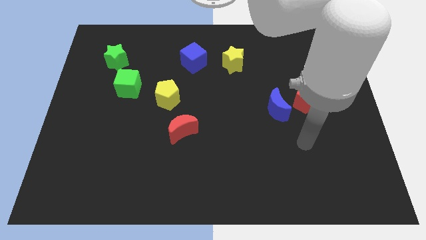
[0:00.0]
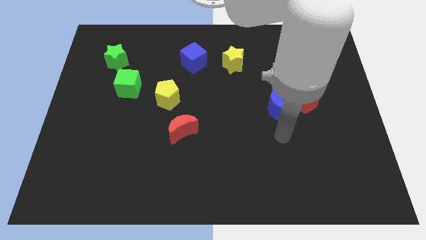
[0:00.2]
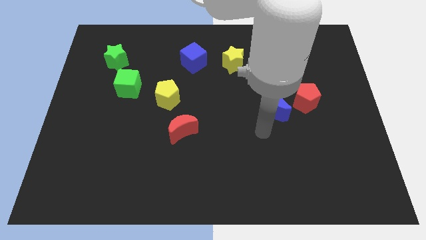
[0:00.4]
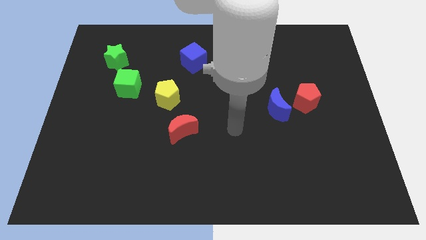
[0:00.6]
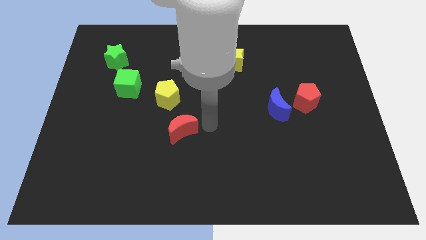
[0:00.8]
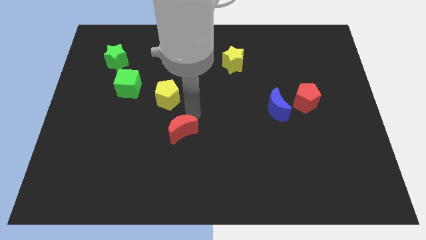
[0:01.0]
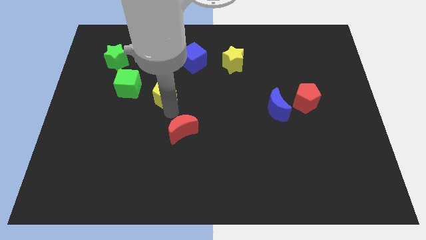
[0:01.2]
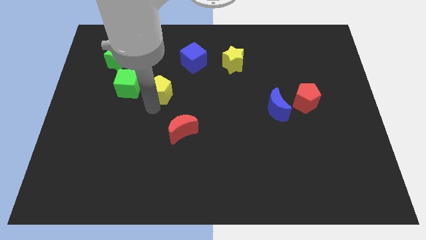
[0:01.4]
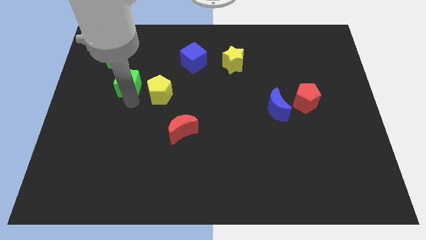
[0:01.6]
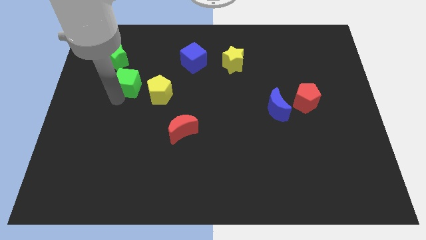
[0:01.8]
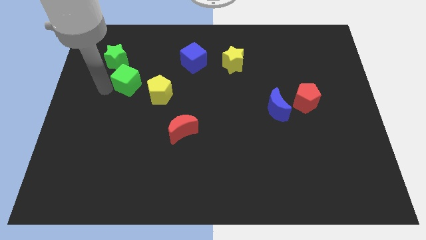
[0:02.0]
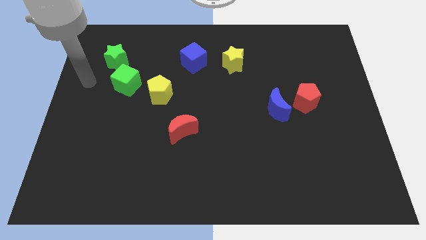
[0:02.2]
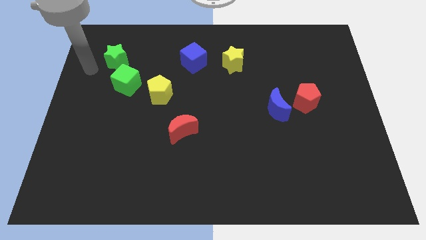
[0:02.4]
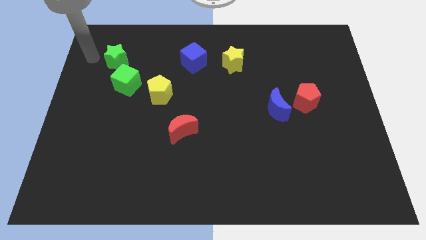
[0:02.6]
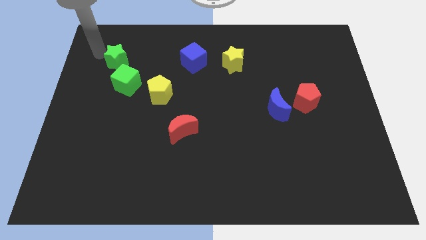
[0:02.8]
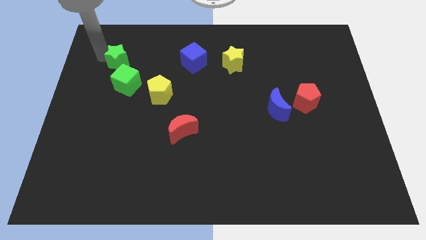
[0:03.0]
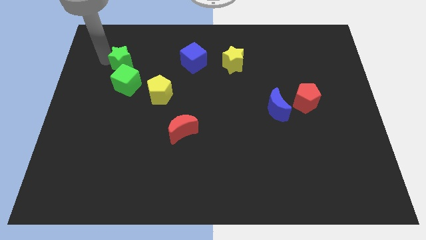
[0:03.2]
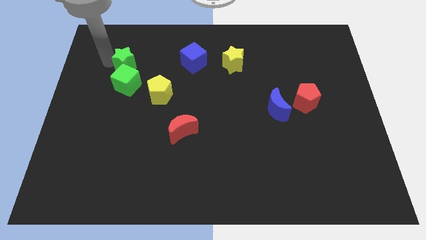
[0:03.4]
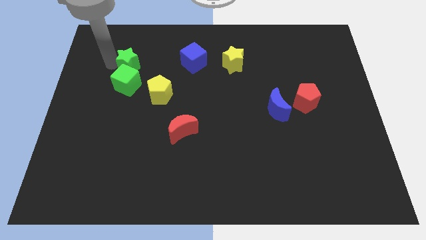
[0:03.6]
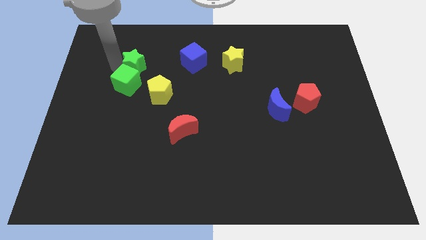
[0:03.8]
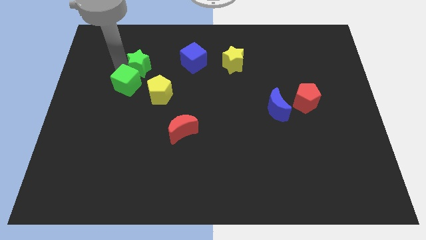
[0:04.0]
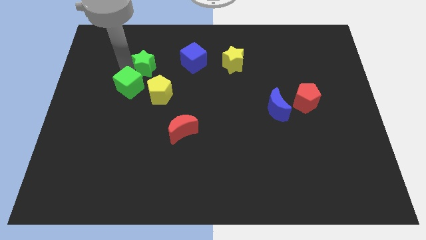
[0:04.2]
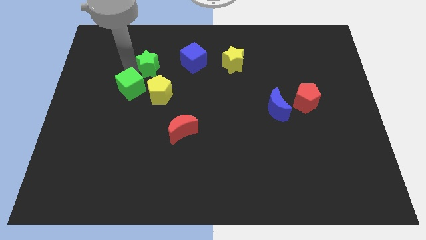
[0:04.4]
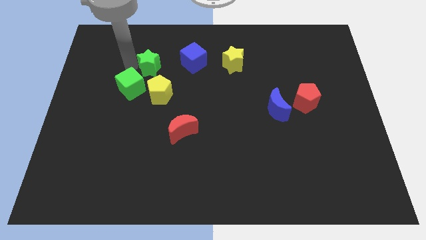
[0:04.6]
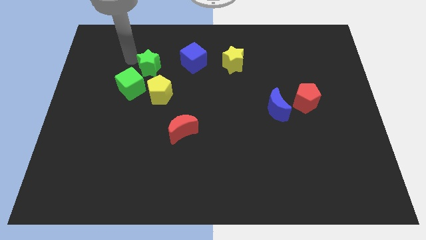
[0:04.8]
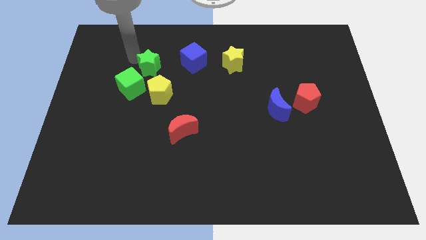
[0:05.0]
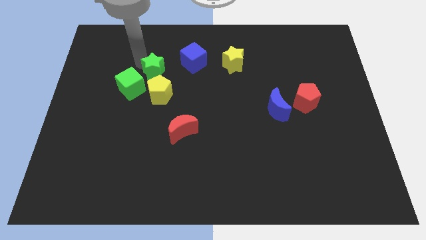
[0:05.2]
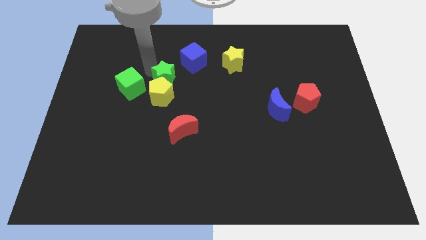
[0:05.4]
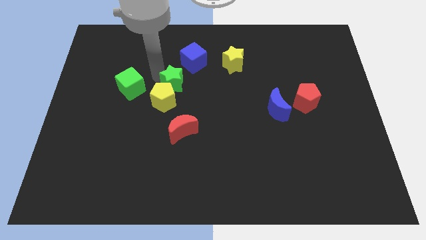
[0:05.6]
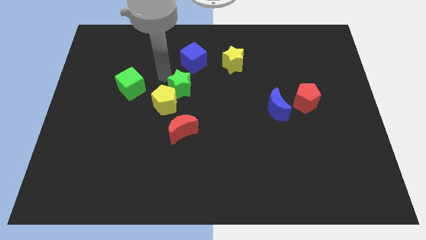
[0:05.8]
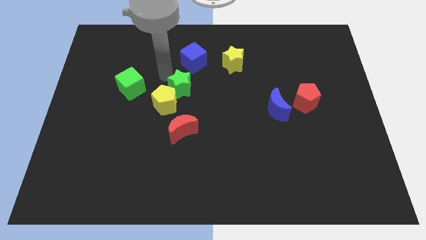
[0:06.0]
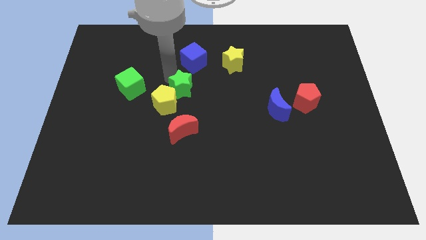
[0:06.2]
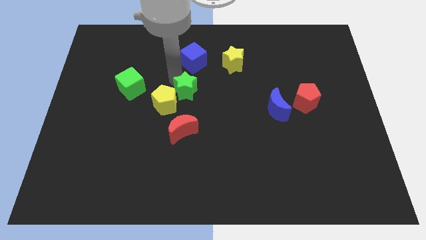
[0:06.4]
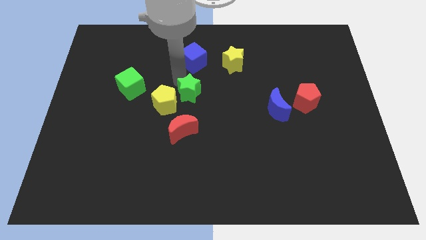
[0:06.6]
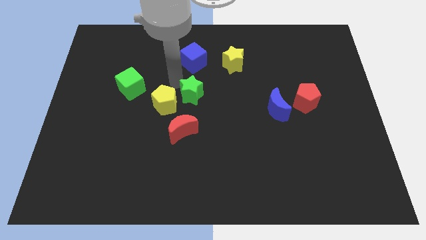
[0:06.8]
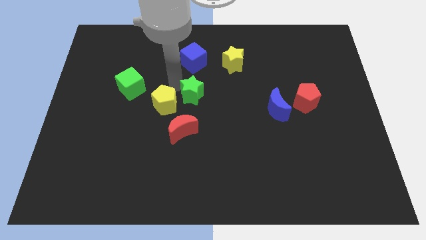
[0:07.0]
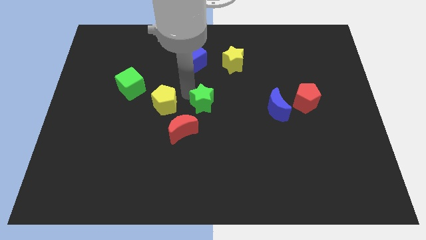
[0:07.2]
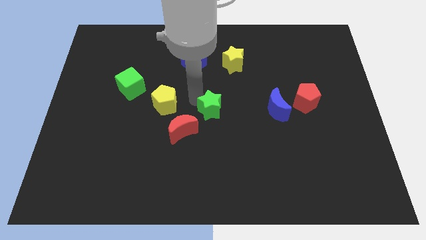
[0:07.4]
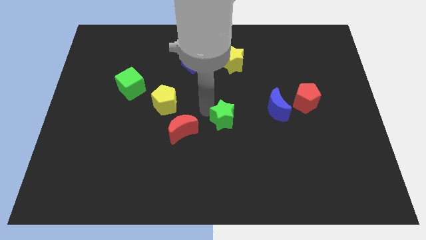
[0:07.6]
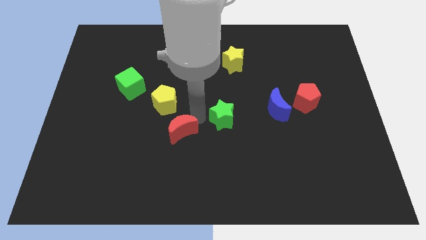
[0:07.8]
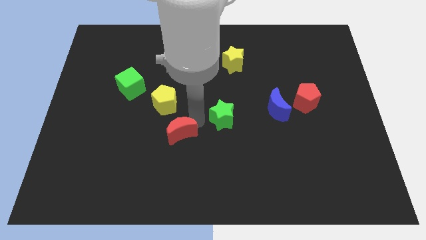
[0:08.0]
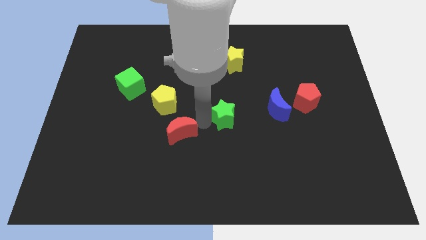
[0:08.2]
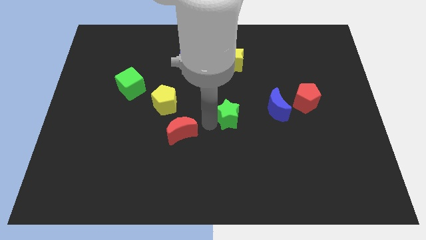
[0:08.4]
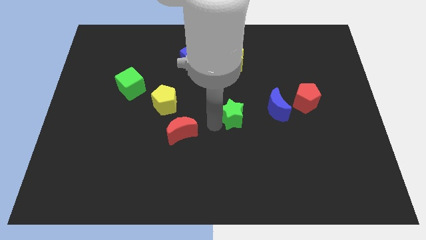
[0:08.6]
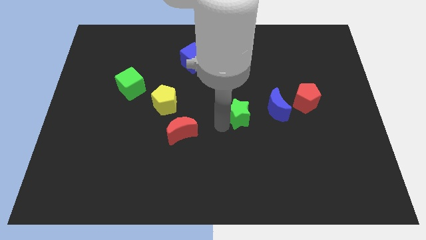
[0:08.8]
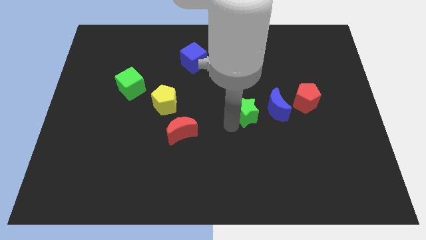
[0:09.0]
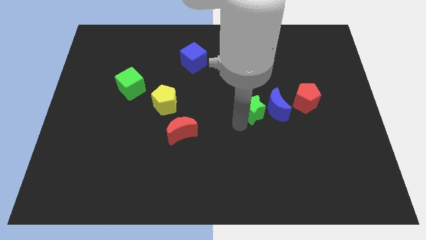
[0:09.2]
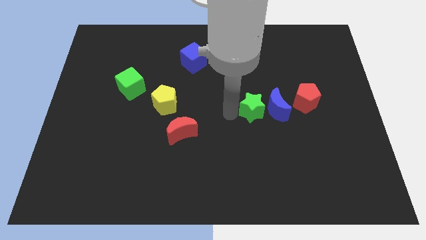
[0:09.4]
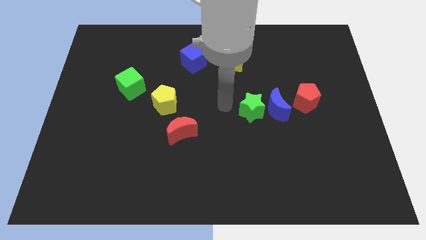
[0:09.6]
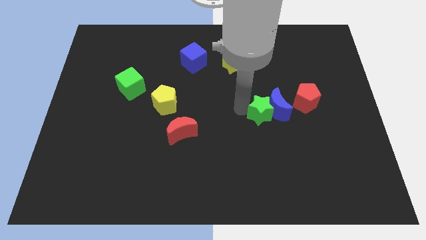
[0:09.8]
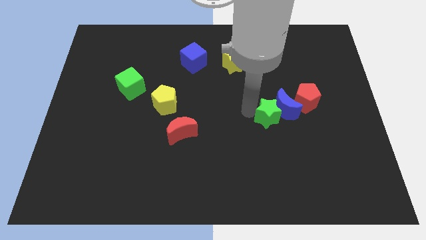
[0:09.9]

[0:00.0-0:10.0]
push the green star diagonally down and to the left of the red pentagon

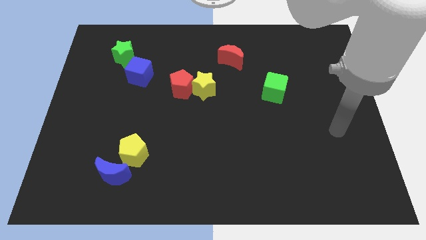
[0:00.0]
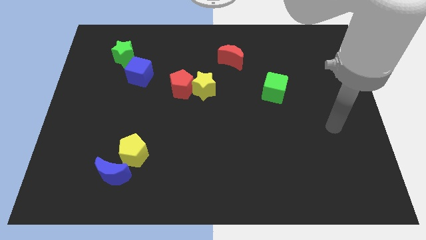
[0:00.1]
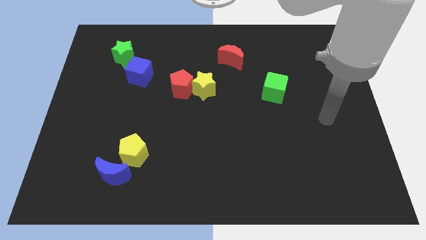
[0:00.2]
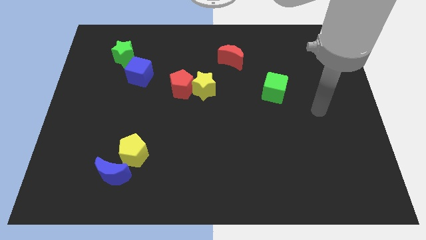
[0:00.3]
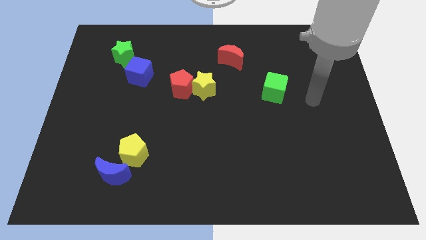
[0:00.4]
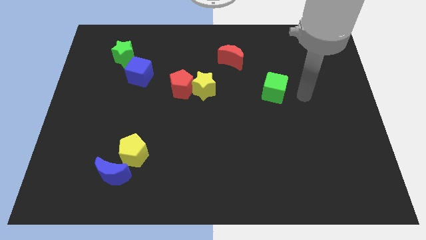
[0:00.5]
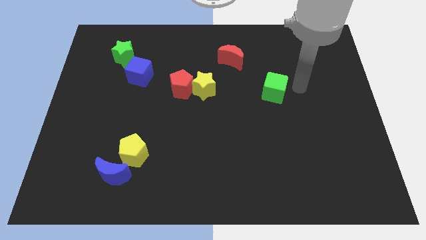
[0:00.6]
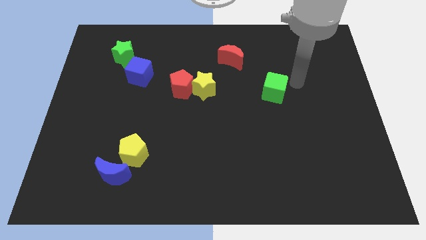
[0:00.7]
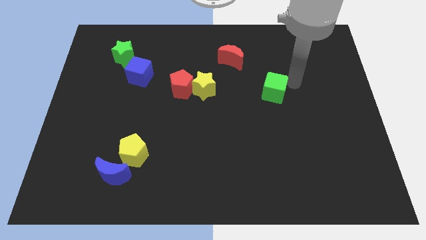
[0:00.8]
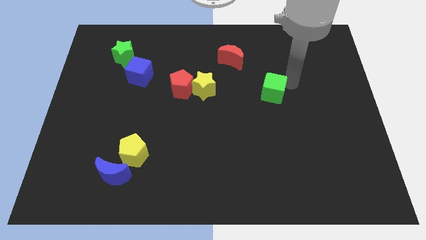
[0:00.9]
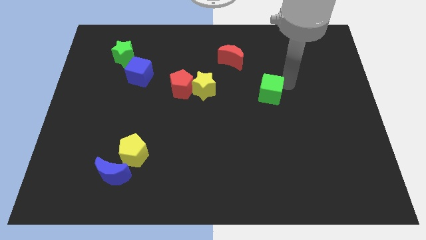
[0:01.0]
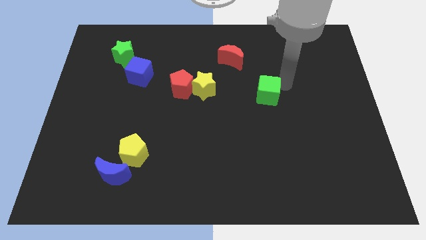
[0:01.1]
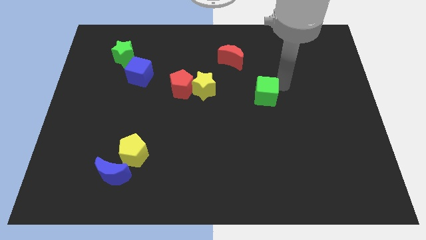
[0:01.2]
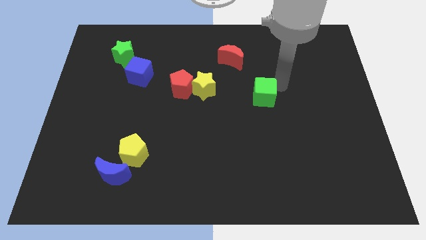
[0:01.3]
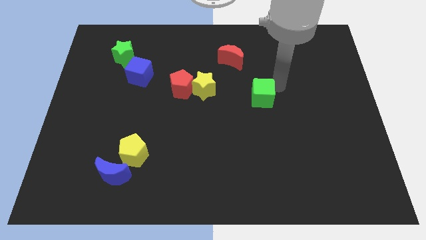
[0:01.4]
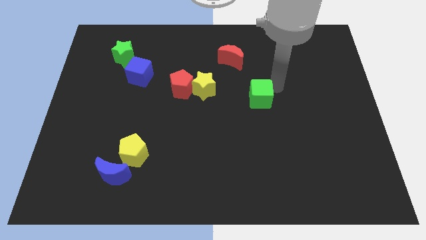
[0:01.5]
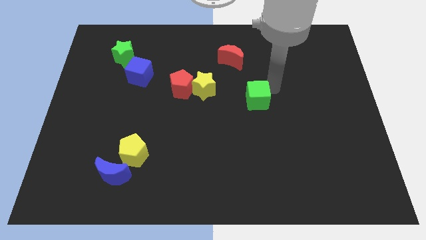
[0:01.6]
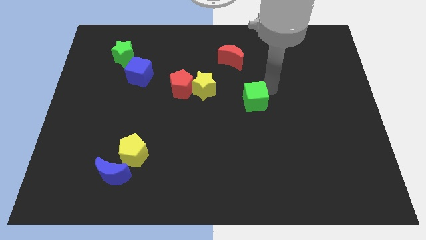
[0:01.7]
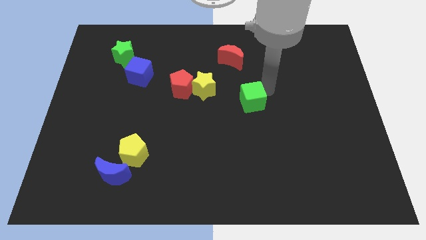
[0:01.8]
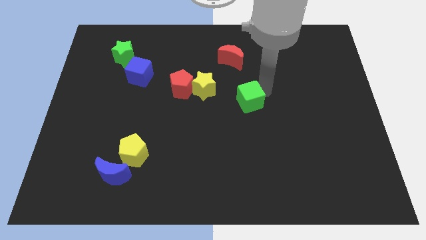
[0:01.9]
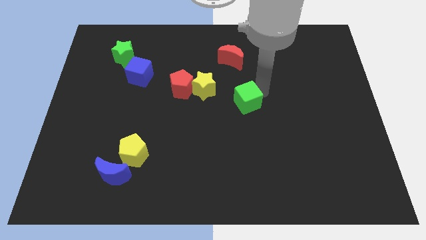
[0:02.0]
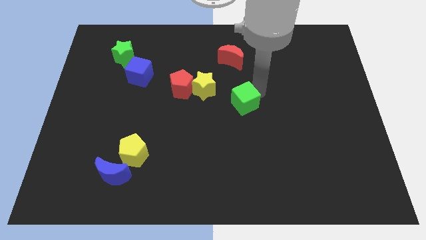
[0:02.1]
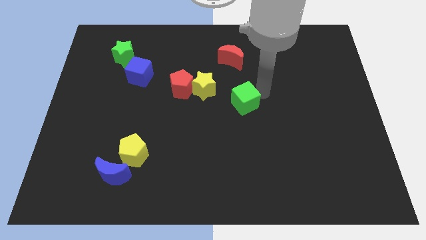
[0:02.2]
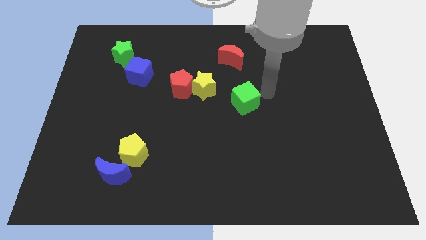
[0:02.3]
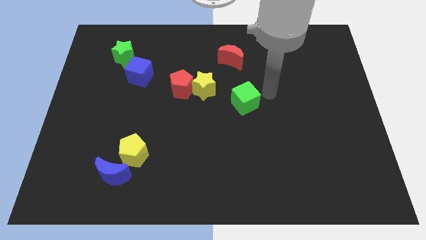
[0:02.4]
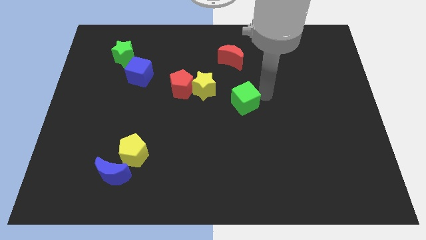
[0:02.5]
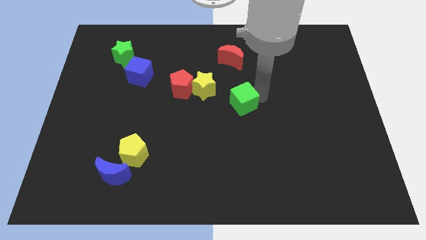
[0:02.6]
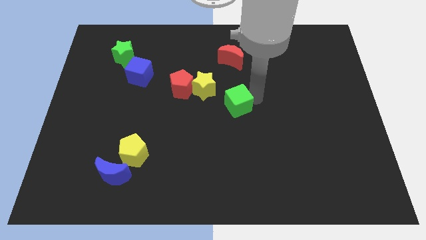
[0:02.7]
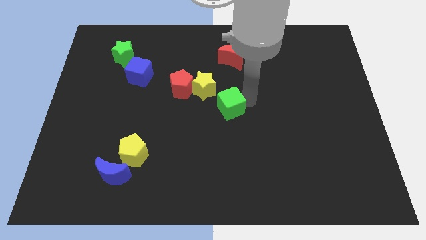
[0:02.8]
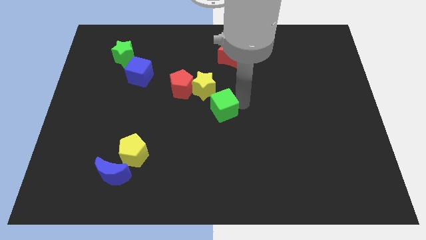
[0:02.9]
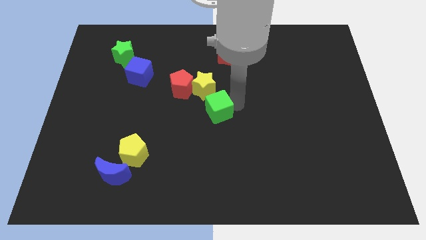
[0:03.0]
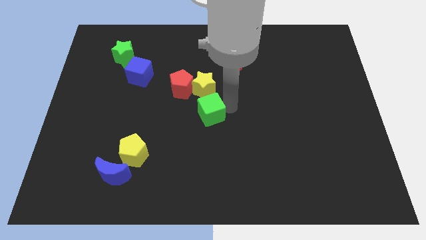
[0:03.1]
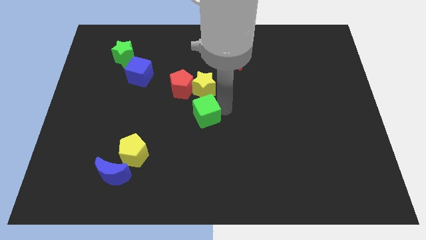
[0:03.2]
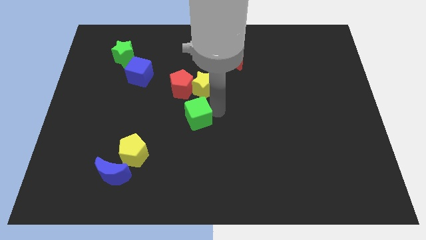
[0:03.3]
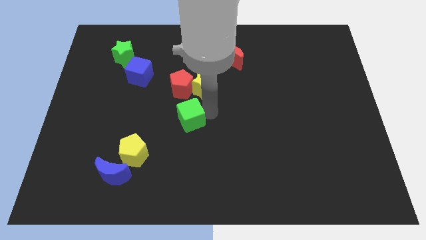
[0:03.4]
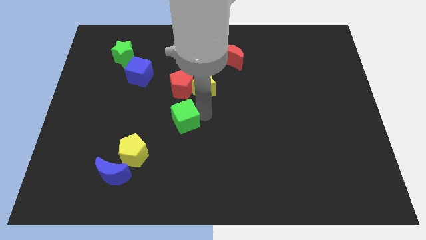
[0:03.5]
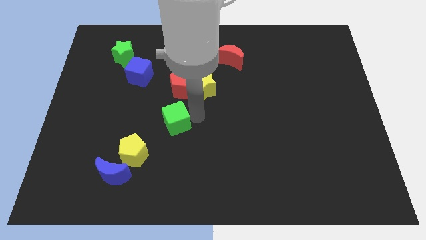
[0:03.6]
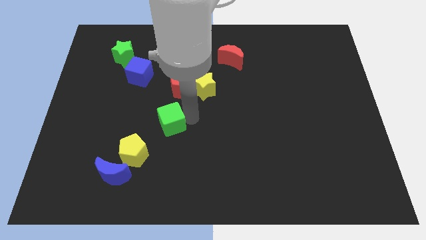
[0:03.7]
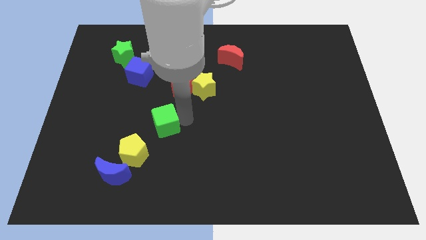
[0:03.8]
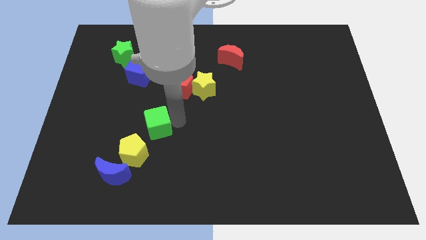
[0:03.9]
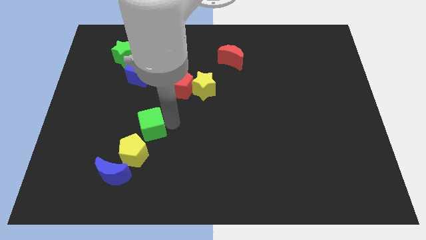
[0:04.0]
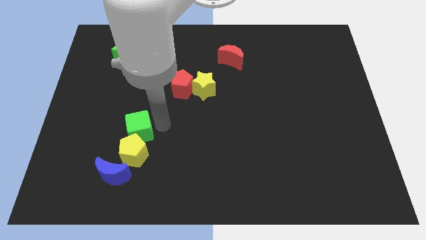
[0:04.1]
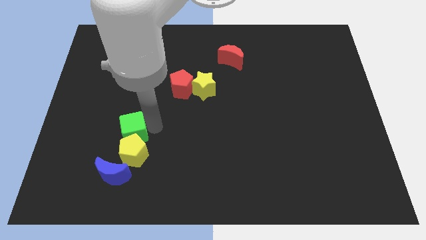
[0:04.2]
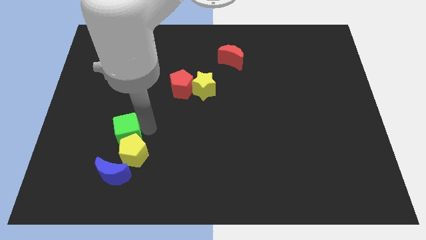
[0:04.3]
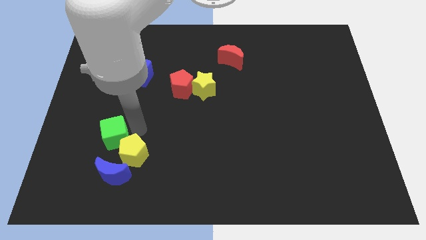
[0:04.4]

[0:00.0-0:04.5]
move the green cube left of the yellow pentagon
